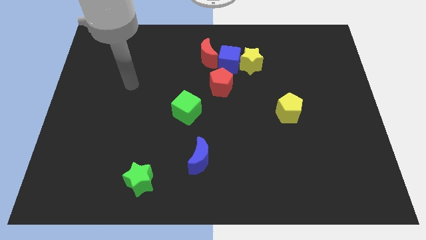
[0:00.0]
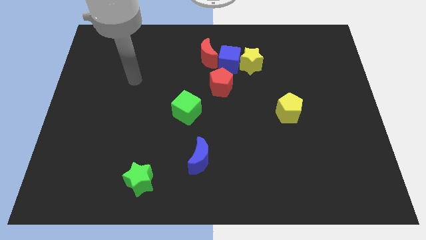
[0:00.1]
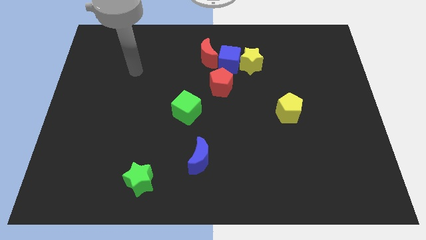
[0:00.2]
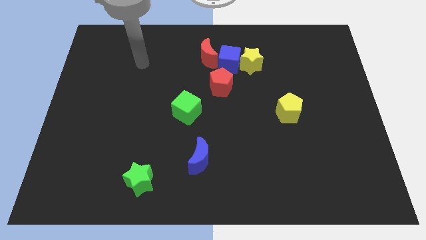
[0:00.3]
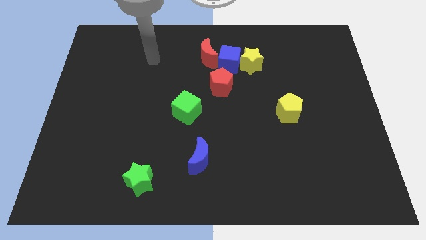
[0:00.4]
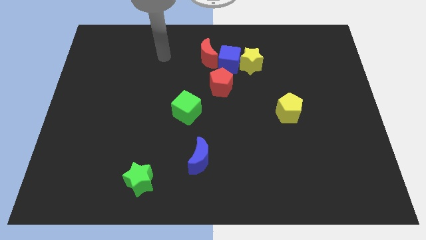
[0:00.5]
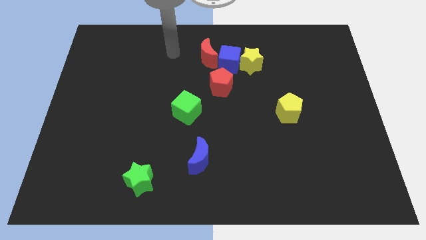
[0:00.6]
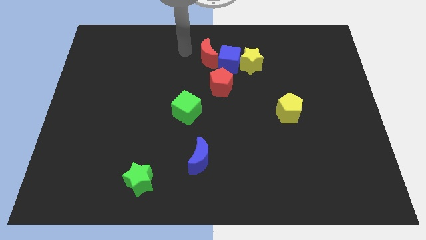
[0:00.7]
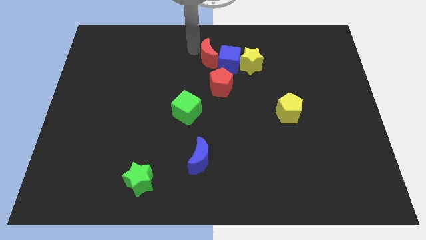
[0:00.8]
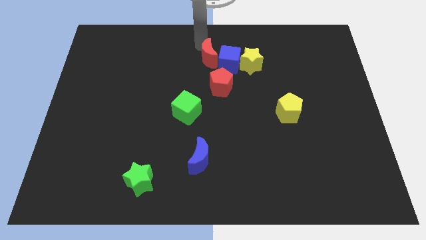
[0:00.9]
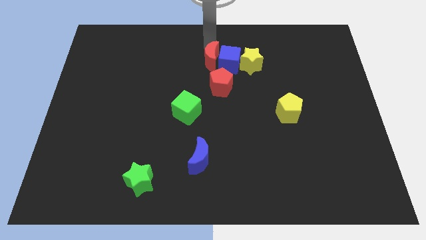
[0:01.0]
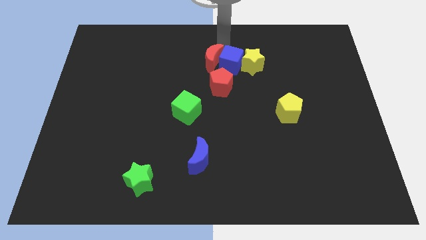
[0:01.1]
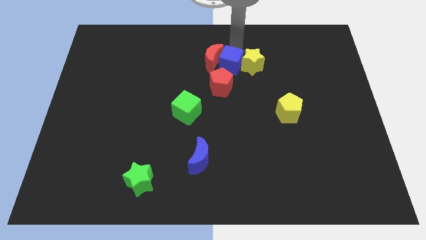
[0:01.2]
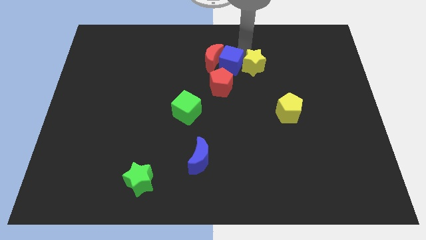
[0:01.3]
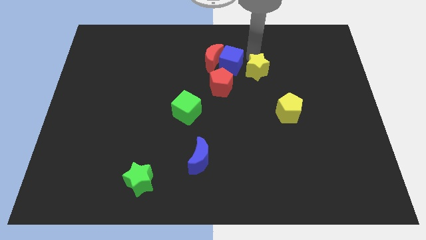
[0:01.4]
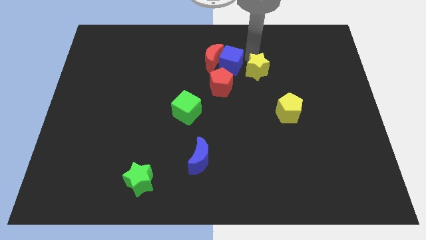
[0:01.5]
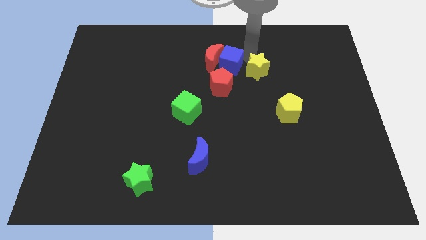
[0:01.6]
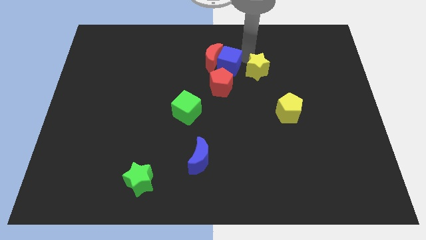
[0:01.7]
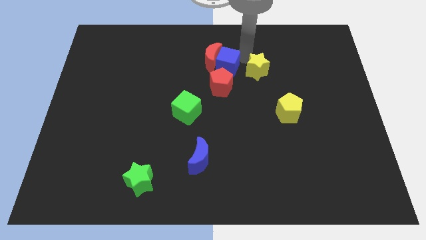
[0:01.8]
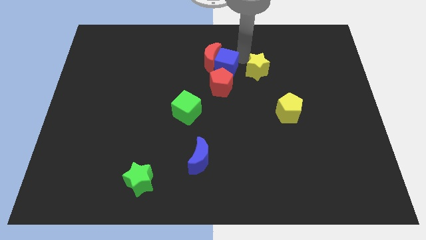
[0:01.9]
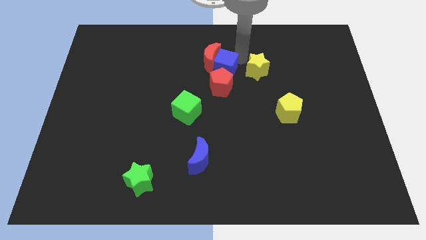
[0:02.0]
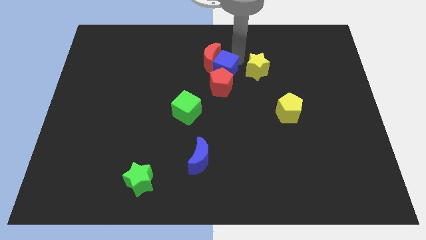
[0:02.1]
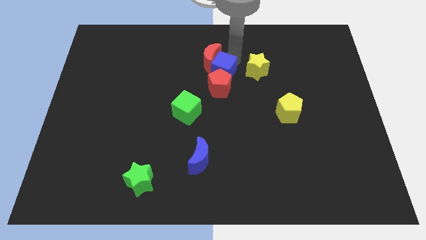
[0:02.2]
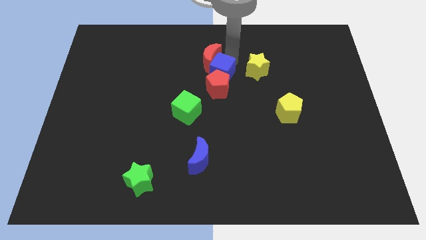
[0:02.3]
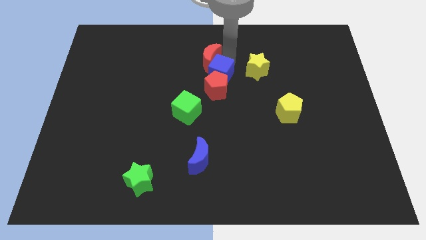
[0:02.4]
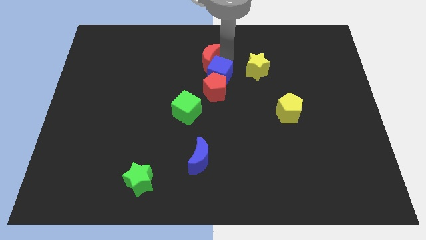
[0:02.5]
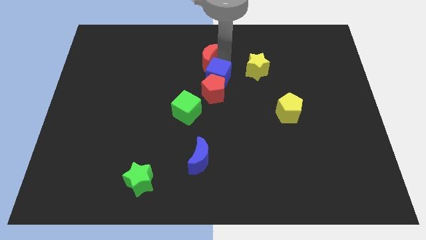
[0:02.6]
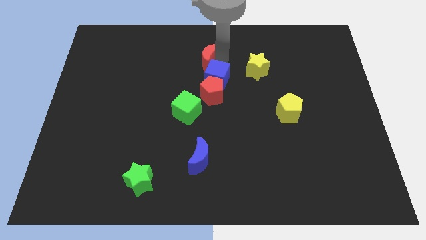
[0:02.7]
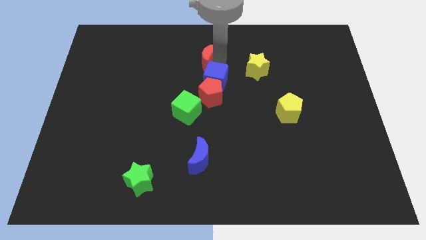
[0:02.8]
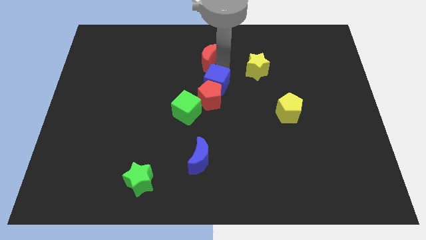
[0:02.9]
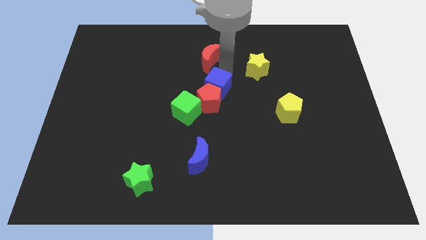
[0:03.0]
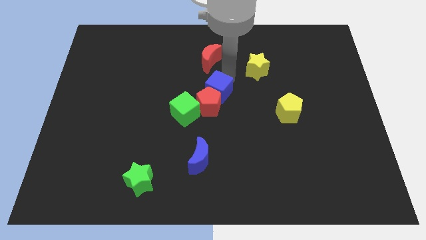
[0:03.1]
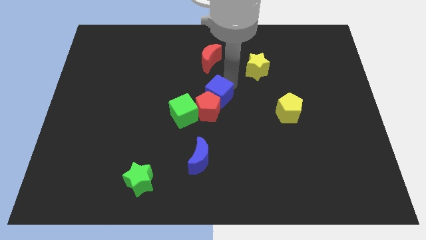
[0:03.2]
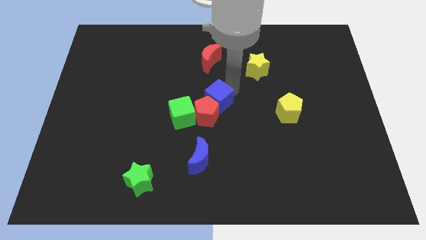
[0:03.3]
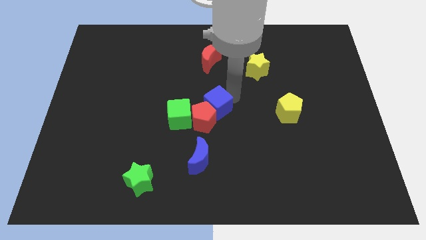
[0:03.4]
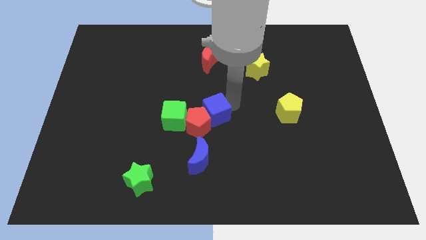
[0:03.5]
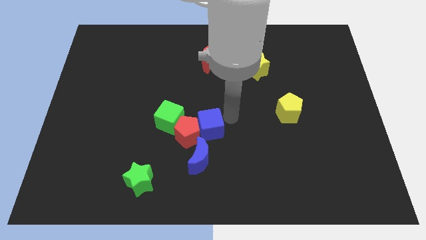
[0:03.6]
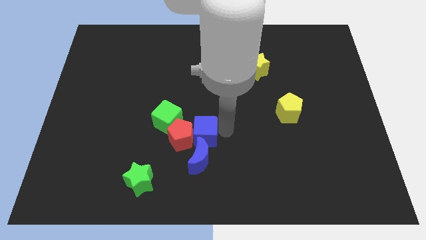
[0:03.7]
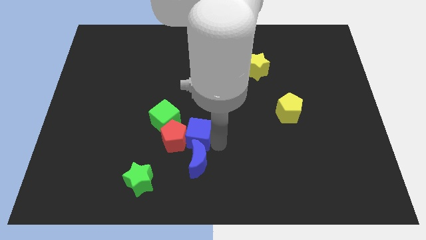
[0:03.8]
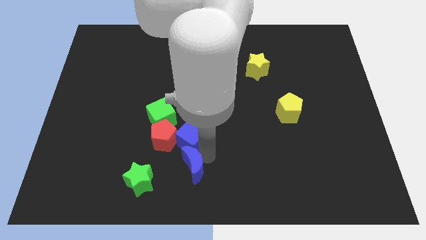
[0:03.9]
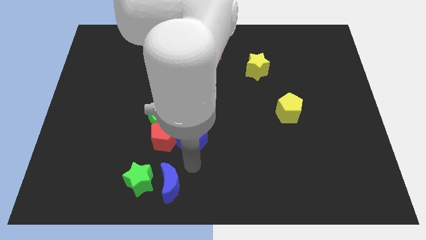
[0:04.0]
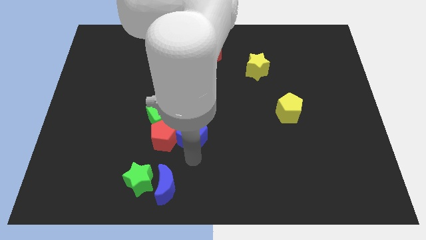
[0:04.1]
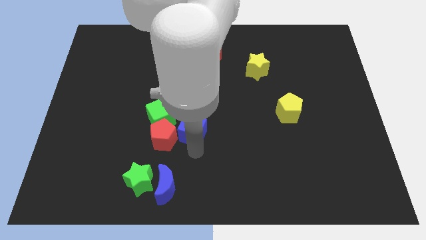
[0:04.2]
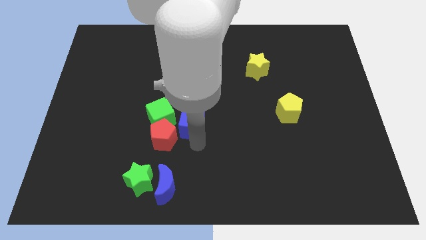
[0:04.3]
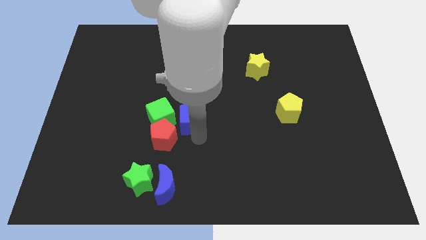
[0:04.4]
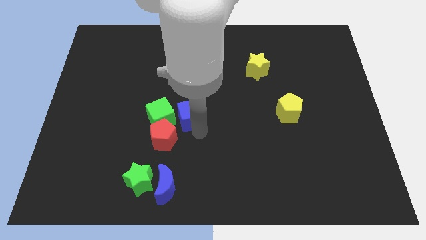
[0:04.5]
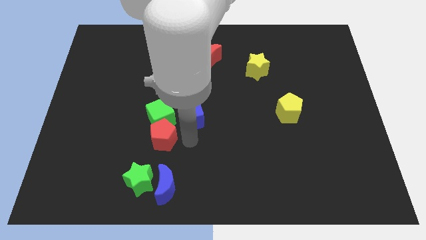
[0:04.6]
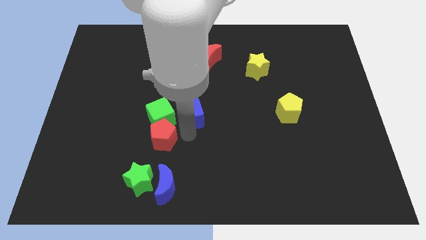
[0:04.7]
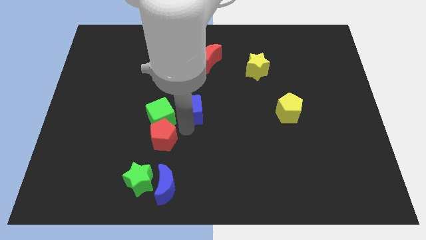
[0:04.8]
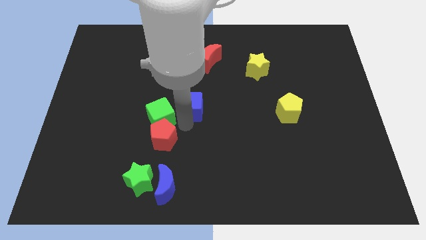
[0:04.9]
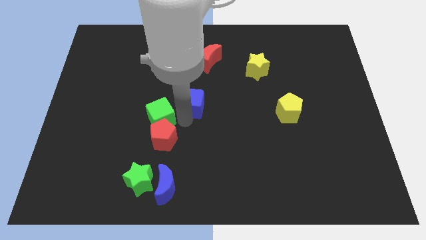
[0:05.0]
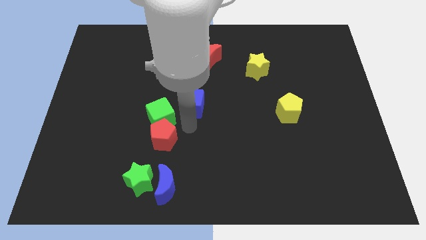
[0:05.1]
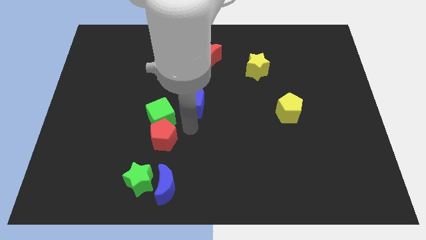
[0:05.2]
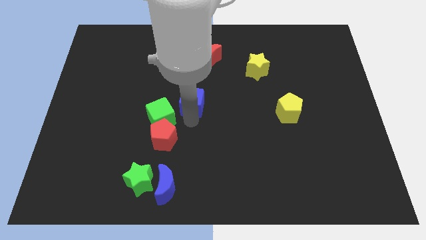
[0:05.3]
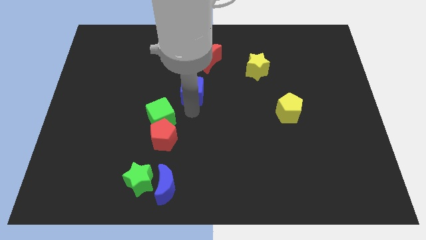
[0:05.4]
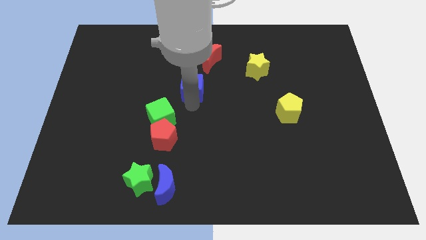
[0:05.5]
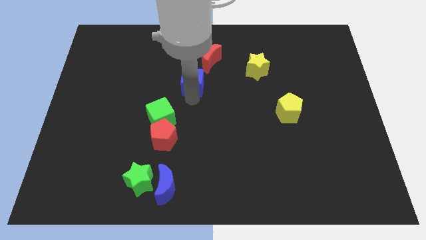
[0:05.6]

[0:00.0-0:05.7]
slide the blue cube to the left somewhat

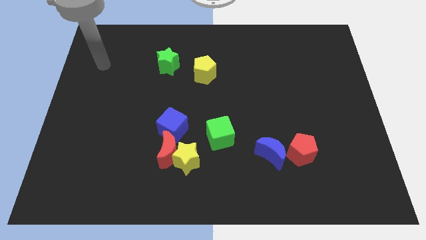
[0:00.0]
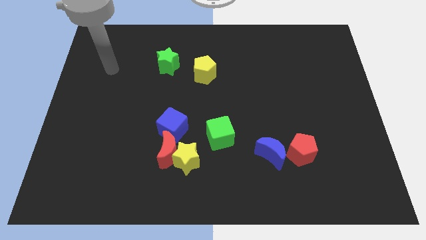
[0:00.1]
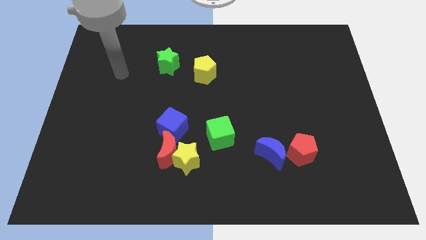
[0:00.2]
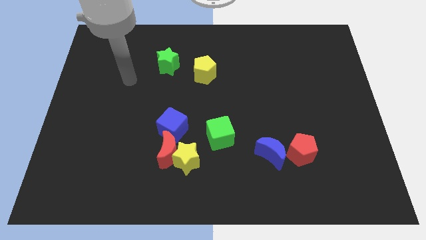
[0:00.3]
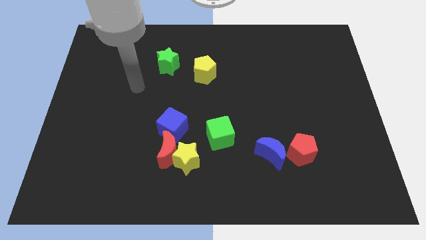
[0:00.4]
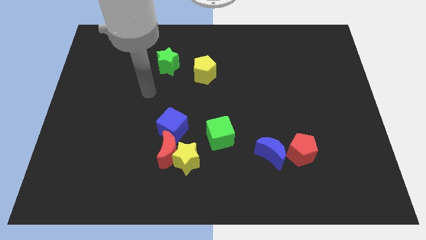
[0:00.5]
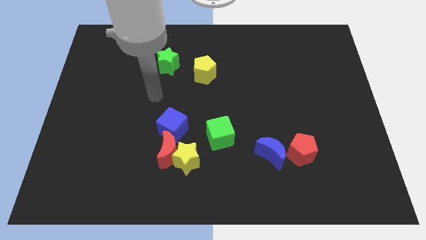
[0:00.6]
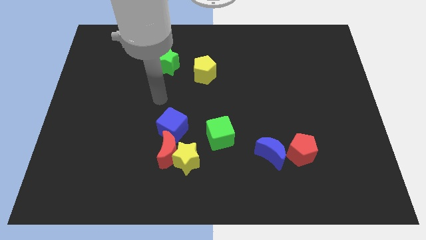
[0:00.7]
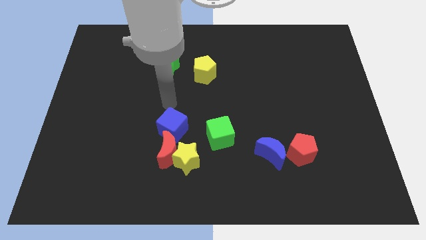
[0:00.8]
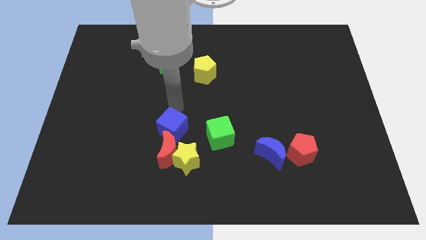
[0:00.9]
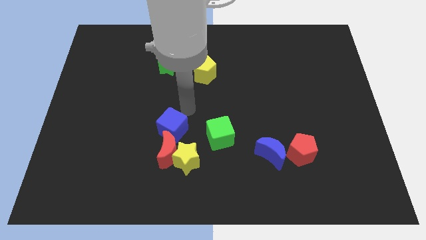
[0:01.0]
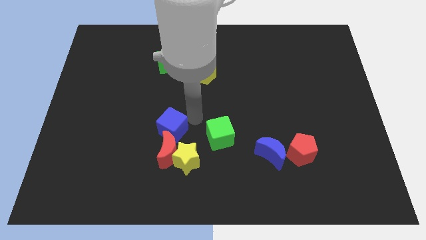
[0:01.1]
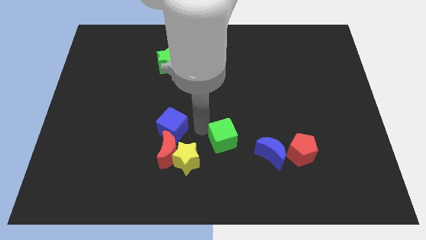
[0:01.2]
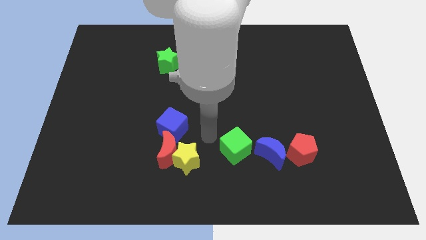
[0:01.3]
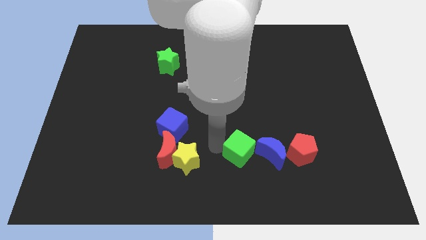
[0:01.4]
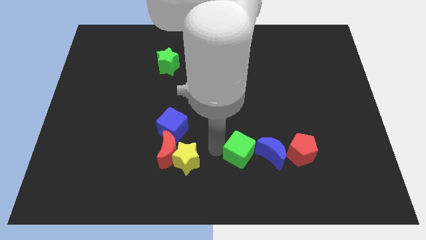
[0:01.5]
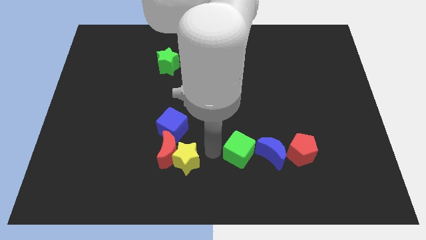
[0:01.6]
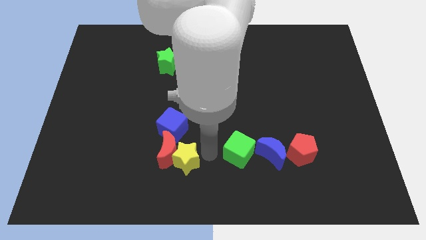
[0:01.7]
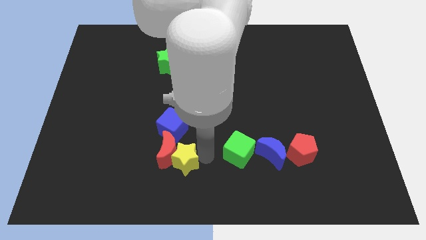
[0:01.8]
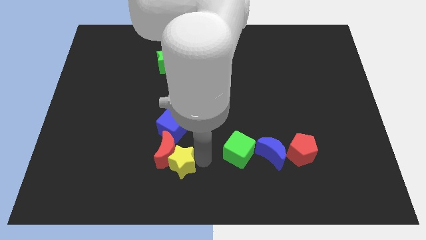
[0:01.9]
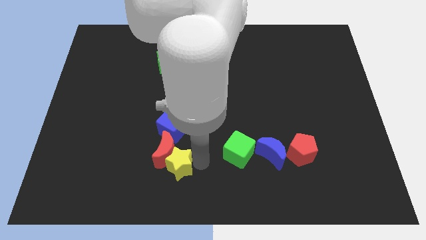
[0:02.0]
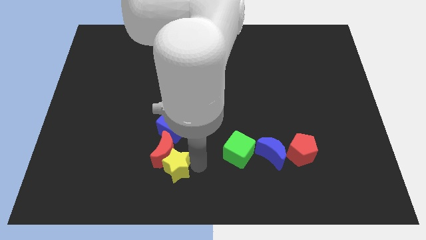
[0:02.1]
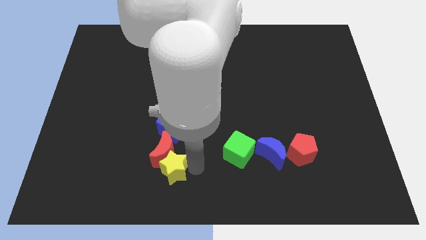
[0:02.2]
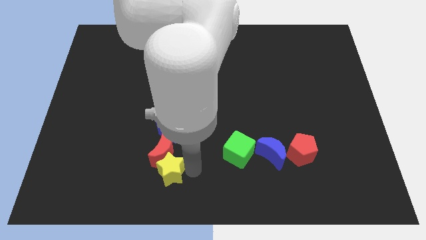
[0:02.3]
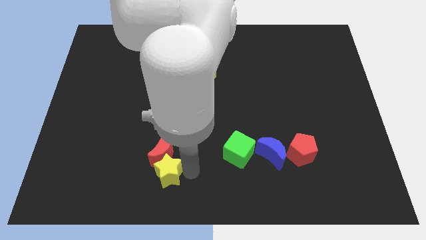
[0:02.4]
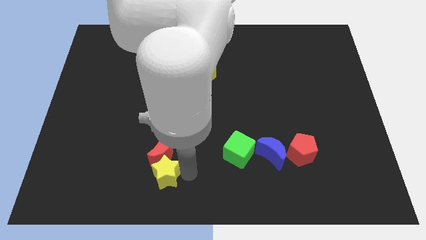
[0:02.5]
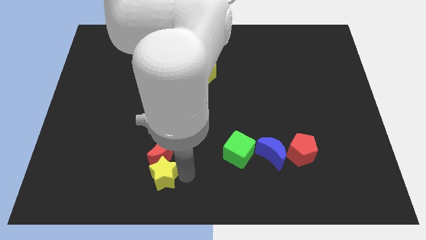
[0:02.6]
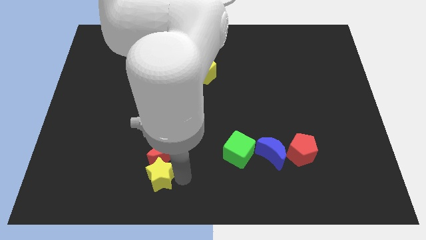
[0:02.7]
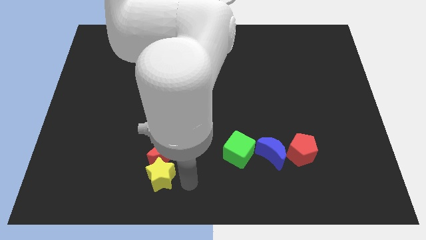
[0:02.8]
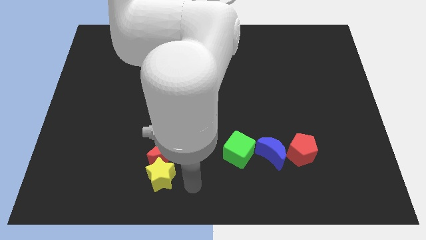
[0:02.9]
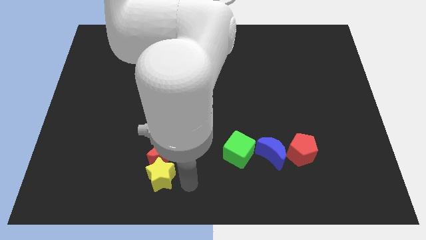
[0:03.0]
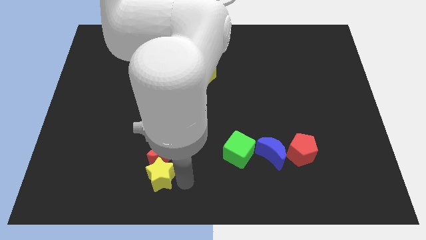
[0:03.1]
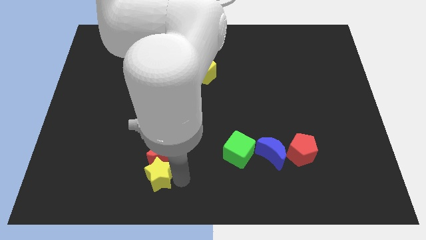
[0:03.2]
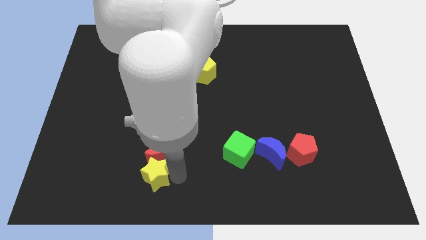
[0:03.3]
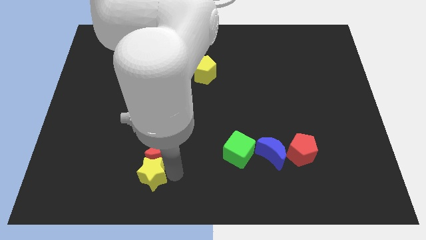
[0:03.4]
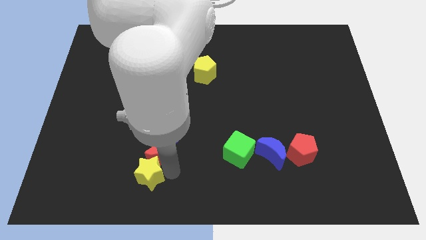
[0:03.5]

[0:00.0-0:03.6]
push the yellow star somewhat left
